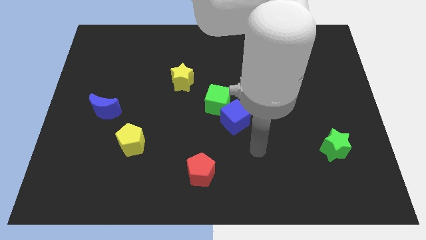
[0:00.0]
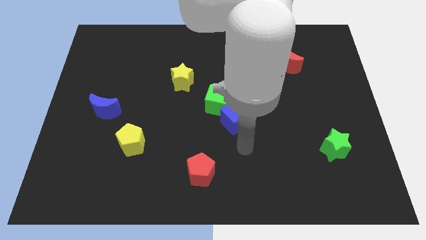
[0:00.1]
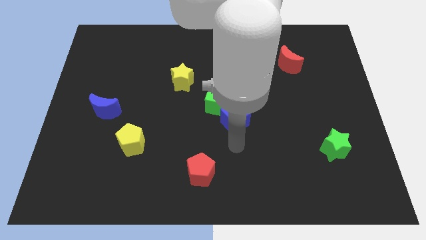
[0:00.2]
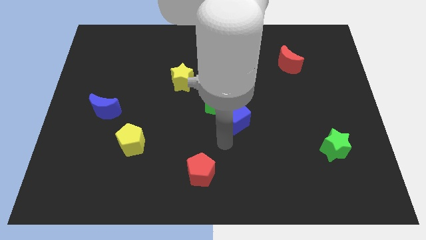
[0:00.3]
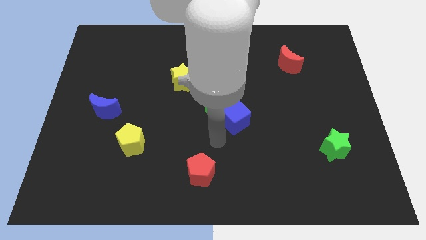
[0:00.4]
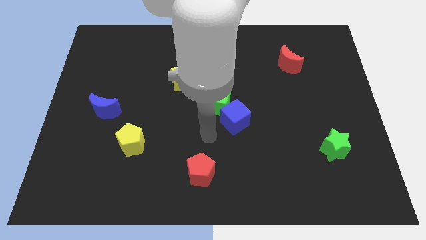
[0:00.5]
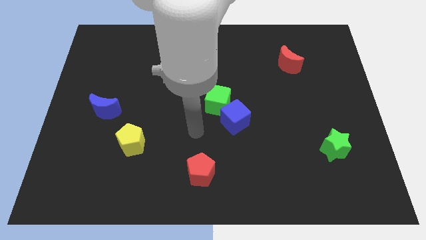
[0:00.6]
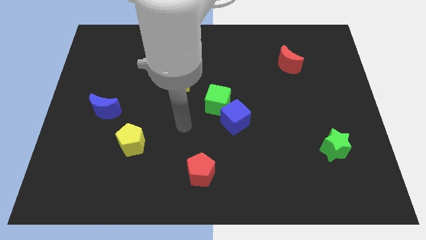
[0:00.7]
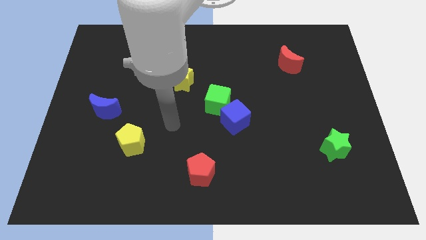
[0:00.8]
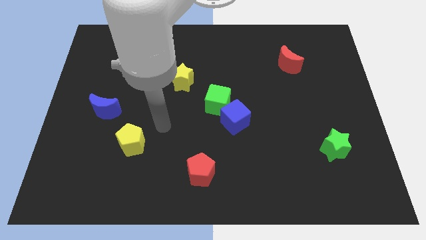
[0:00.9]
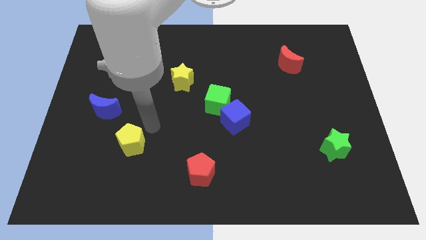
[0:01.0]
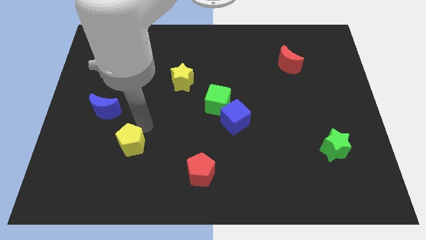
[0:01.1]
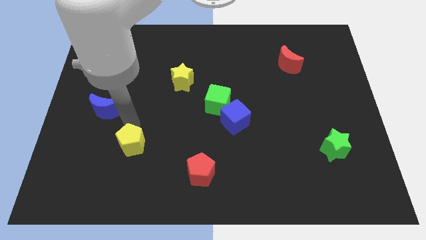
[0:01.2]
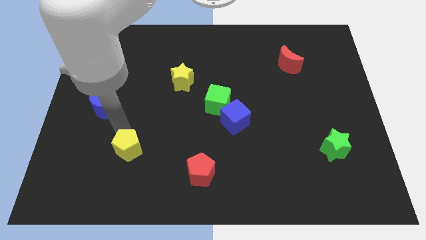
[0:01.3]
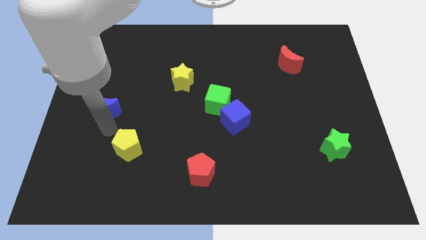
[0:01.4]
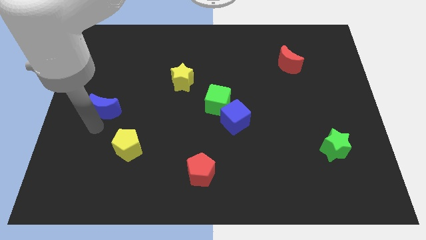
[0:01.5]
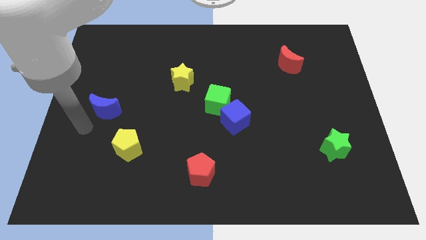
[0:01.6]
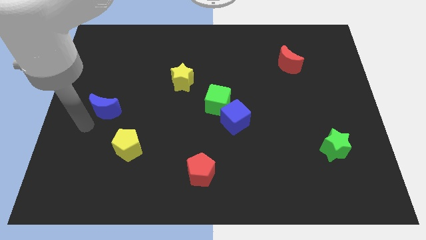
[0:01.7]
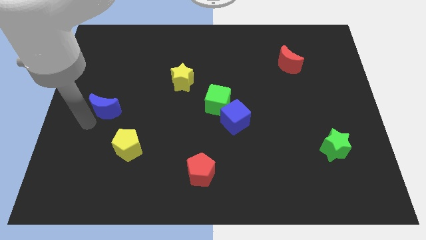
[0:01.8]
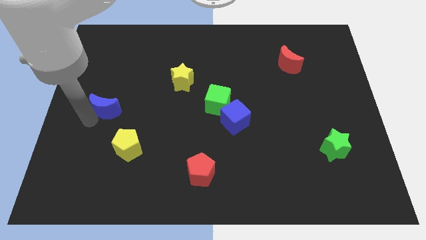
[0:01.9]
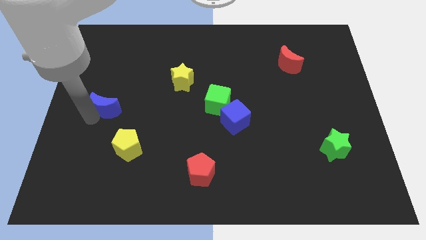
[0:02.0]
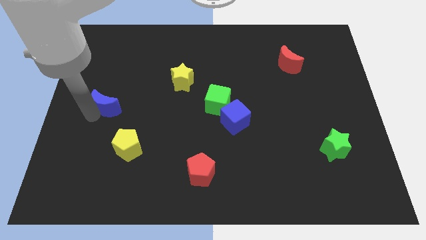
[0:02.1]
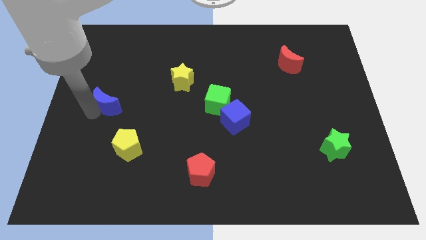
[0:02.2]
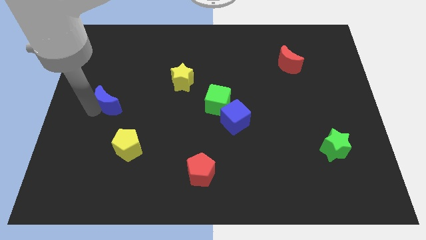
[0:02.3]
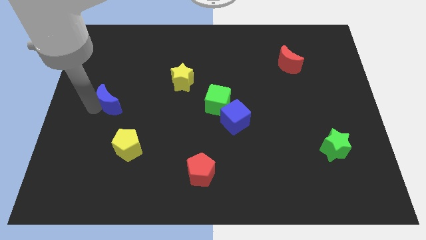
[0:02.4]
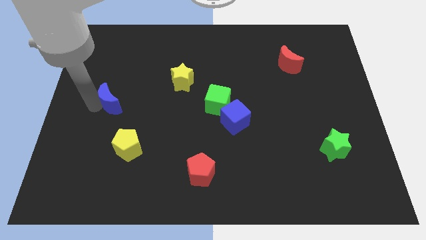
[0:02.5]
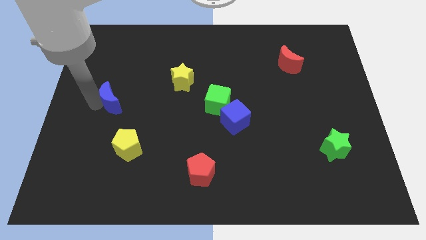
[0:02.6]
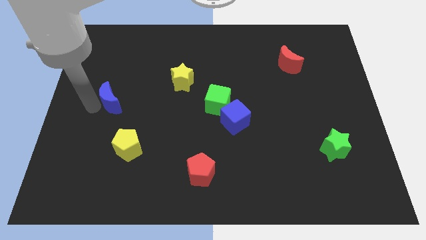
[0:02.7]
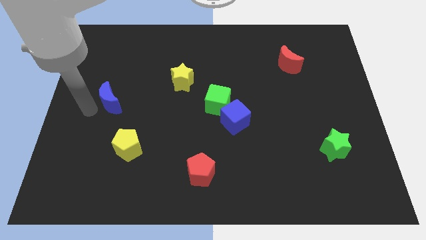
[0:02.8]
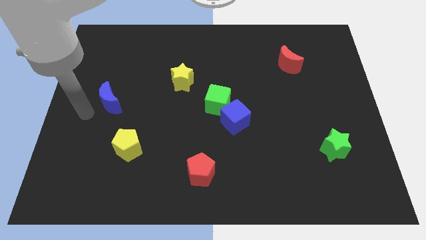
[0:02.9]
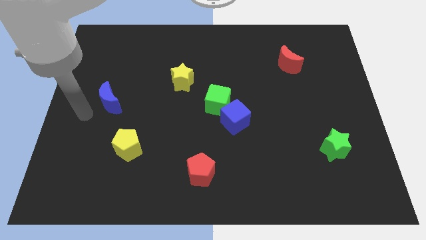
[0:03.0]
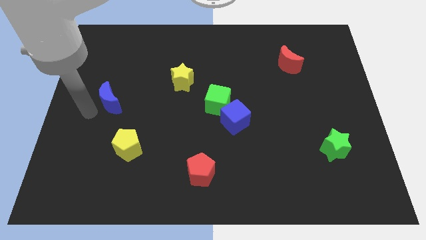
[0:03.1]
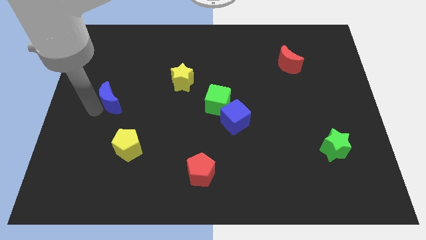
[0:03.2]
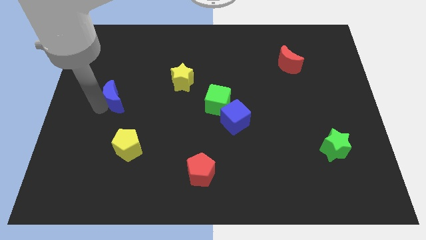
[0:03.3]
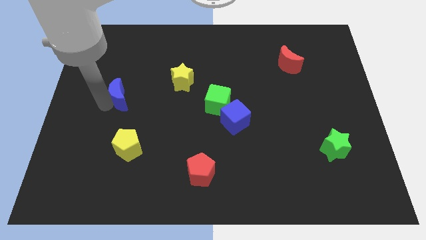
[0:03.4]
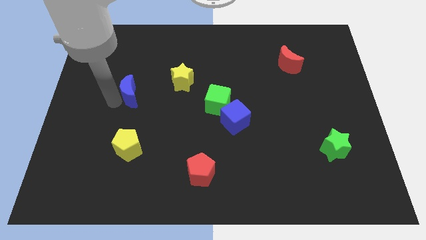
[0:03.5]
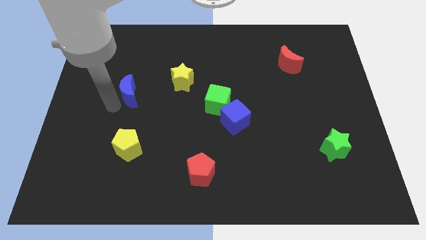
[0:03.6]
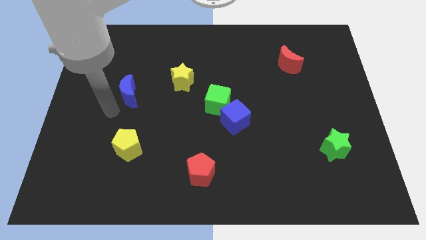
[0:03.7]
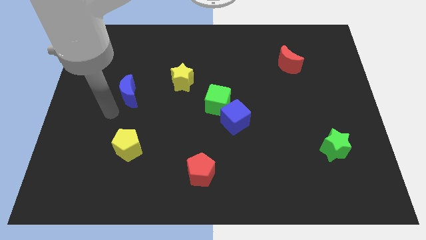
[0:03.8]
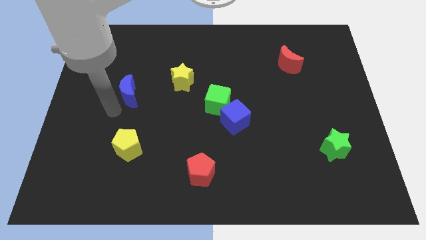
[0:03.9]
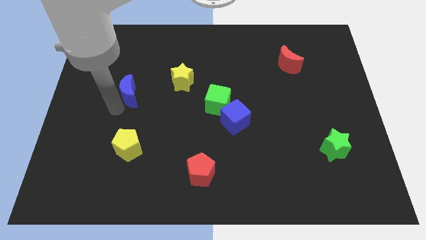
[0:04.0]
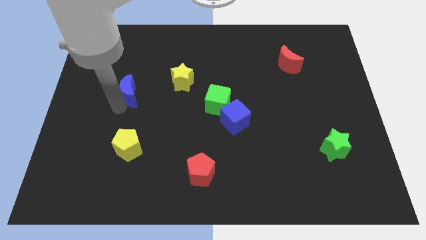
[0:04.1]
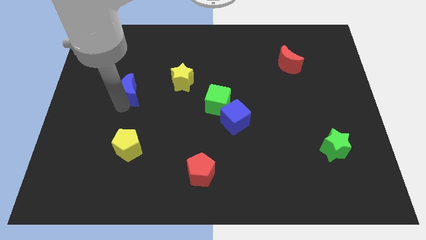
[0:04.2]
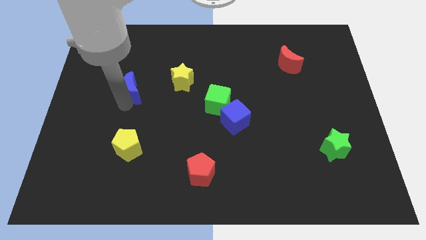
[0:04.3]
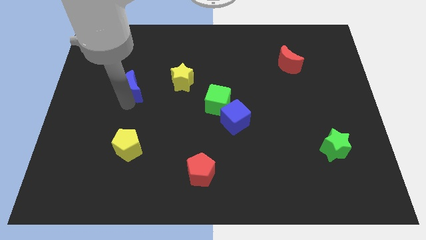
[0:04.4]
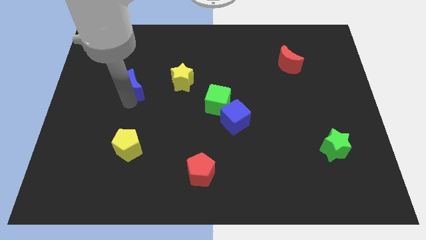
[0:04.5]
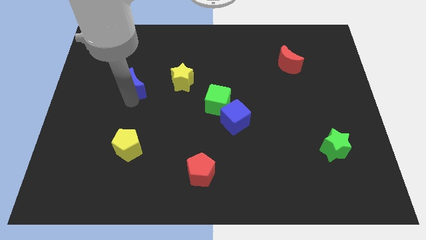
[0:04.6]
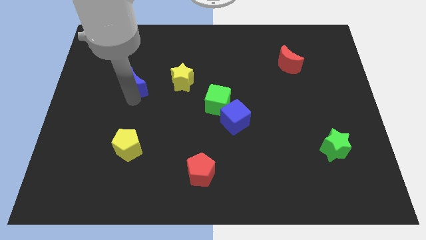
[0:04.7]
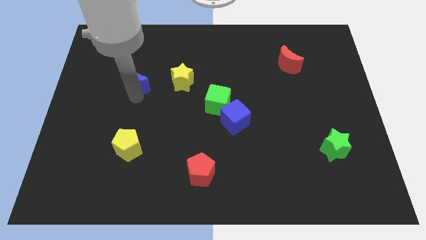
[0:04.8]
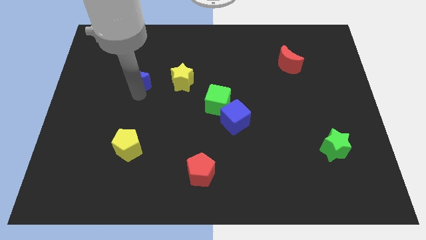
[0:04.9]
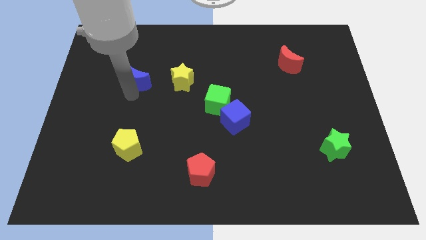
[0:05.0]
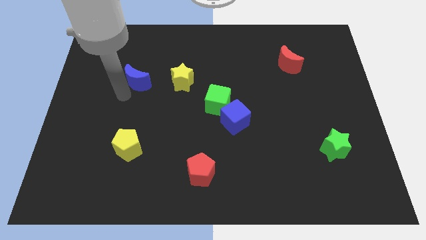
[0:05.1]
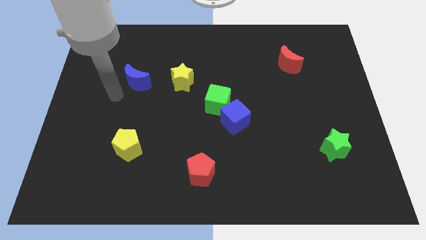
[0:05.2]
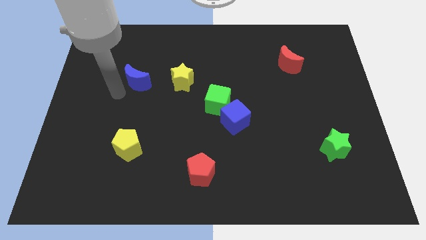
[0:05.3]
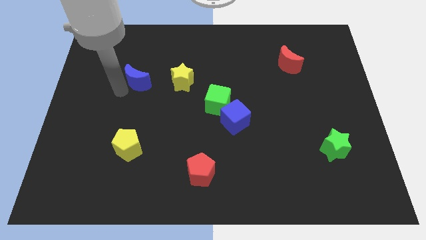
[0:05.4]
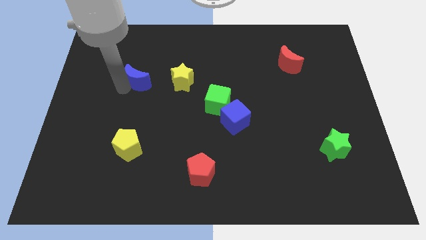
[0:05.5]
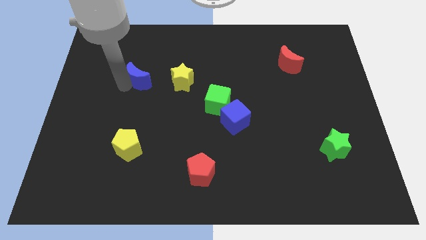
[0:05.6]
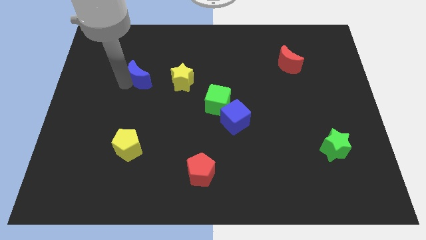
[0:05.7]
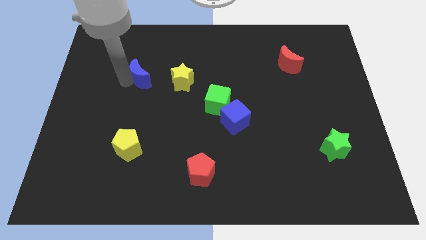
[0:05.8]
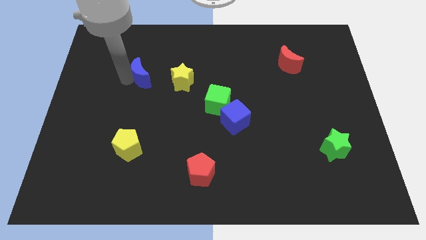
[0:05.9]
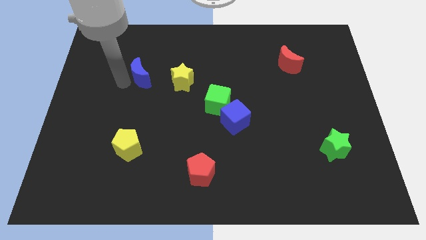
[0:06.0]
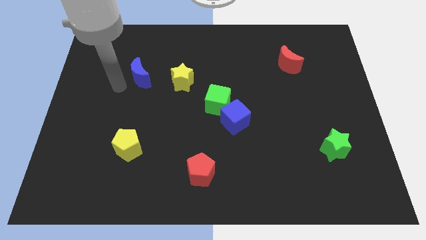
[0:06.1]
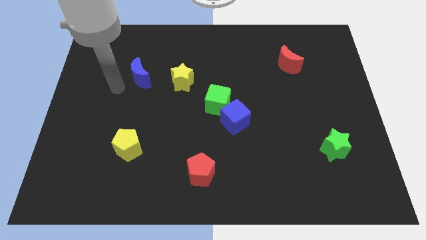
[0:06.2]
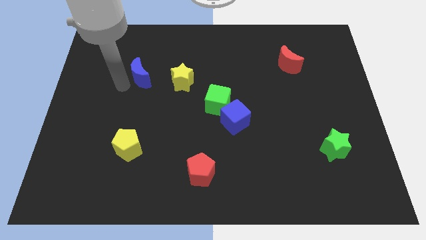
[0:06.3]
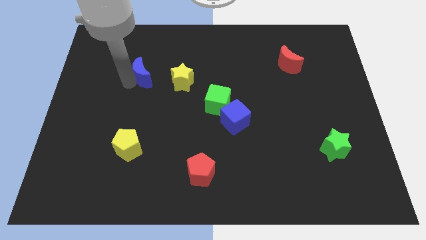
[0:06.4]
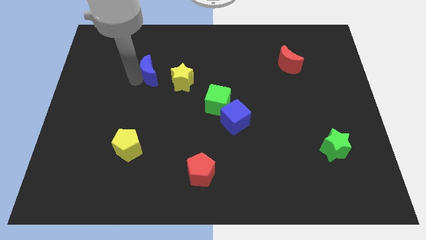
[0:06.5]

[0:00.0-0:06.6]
put the blue moon diagonally up and to the left of the yellow star

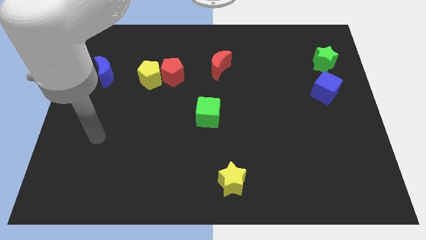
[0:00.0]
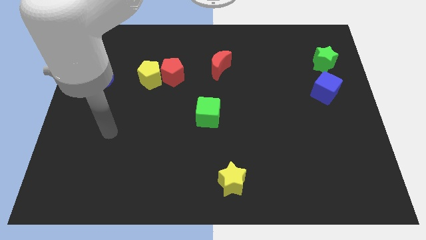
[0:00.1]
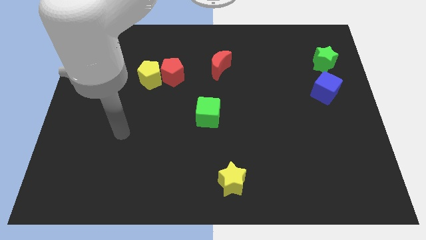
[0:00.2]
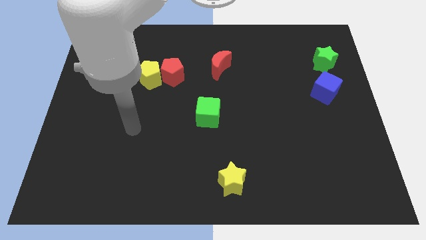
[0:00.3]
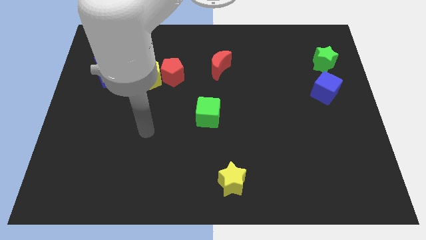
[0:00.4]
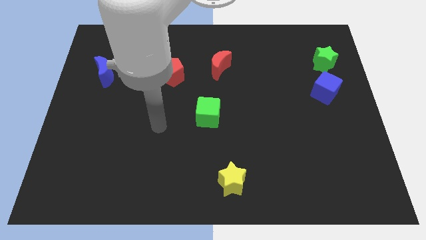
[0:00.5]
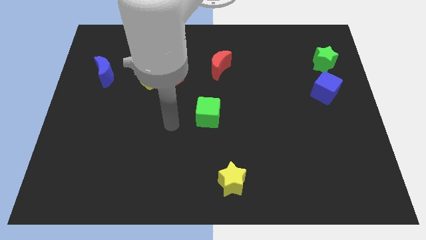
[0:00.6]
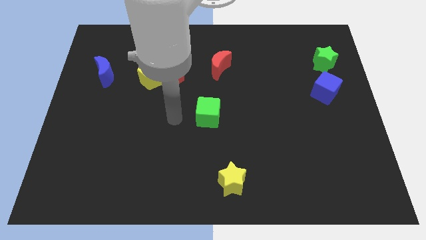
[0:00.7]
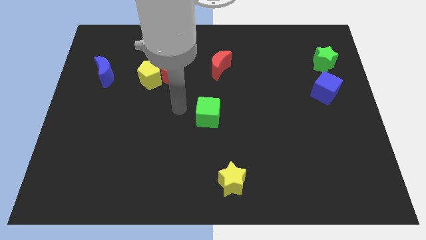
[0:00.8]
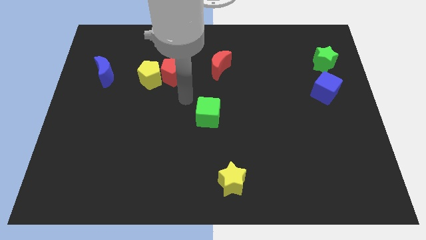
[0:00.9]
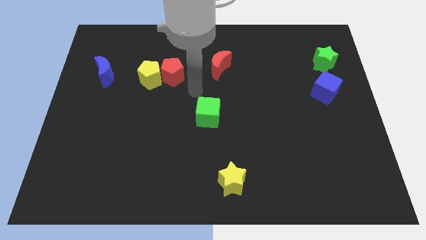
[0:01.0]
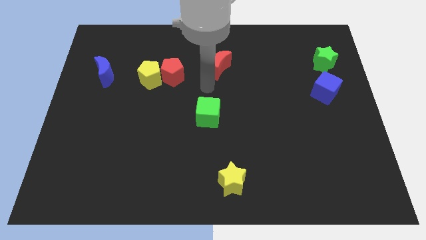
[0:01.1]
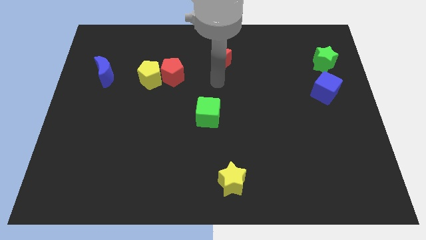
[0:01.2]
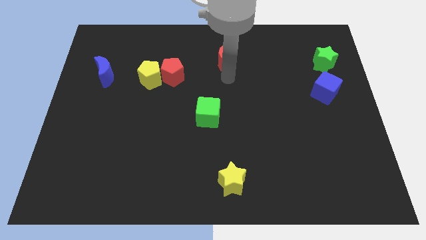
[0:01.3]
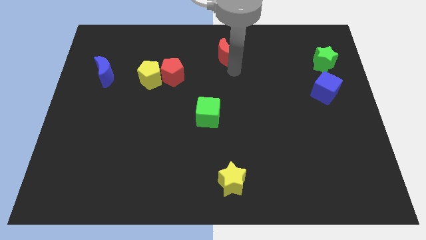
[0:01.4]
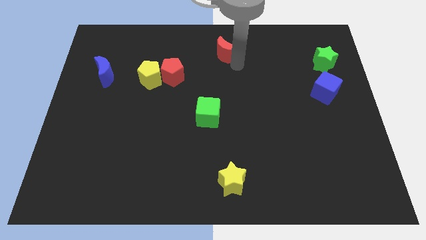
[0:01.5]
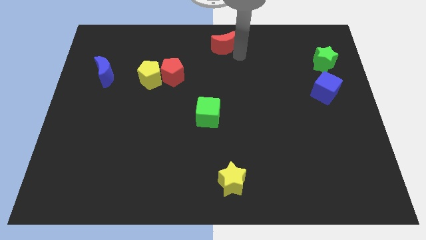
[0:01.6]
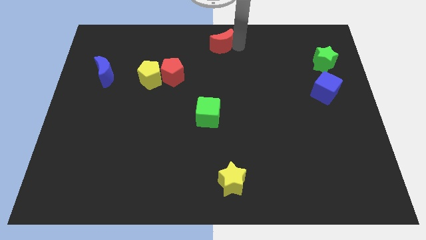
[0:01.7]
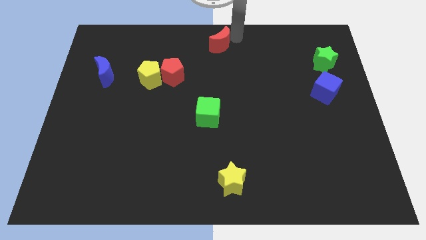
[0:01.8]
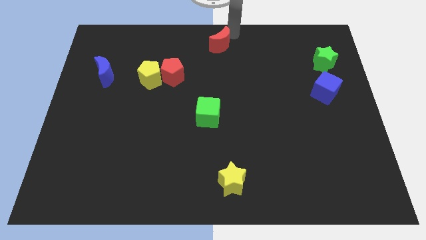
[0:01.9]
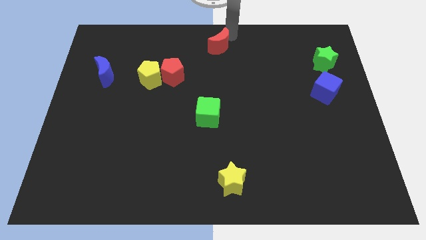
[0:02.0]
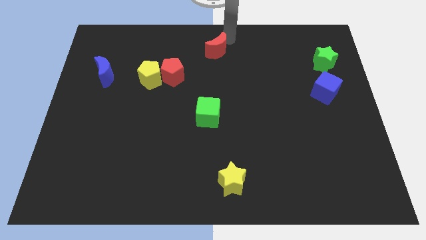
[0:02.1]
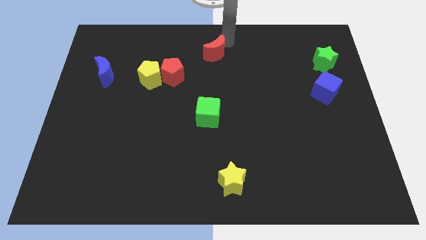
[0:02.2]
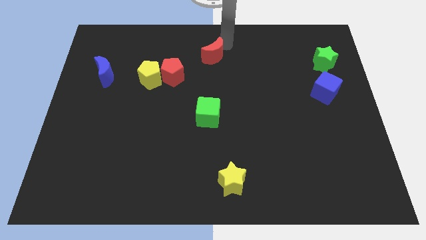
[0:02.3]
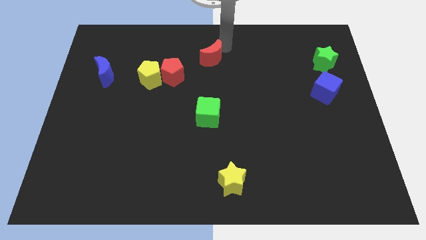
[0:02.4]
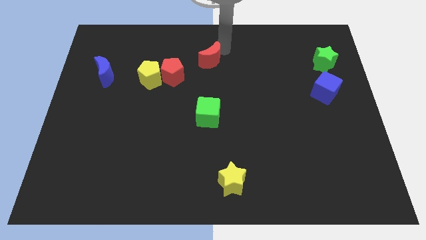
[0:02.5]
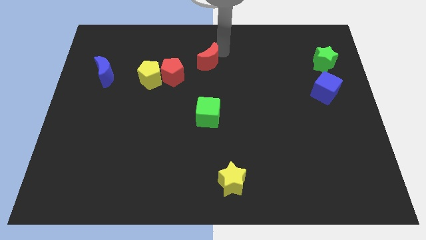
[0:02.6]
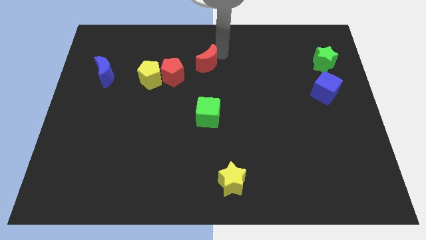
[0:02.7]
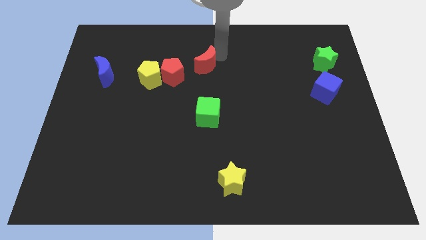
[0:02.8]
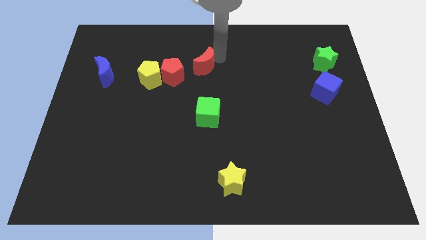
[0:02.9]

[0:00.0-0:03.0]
move the red moon right of the yellow pentagon
